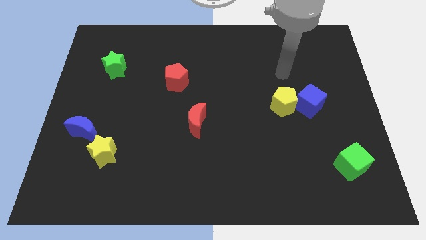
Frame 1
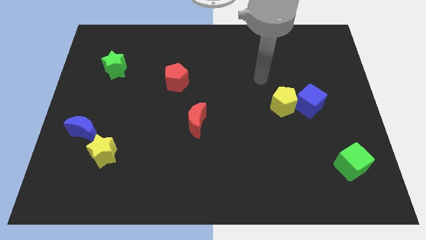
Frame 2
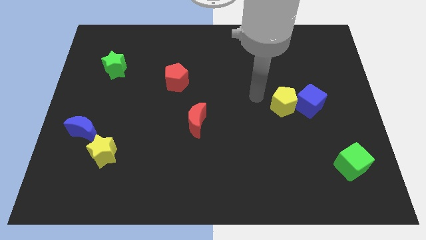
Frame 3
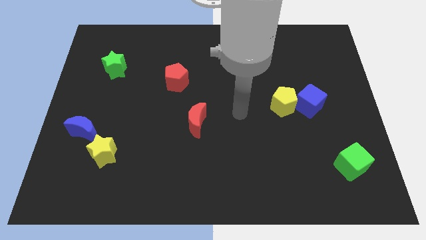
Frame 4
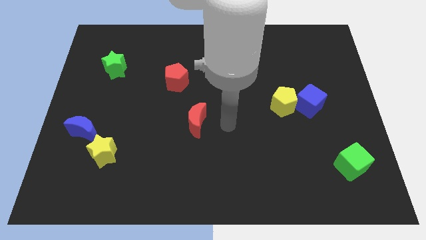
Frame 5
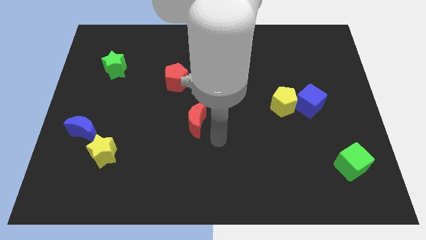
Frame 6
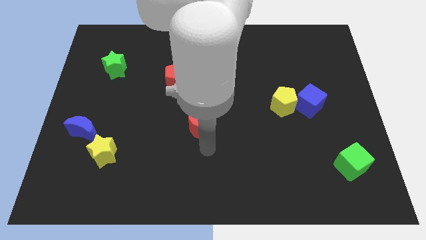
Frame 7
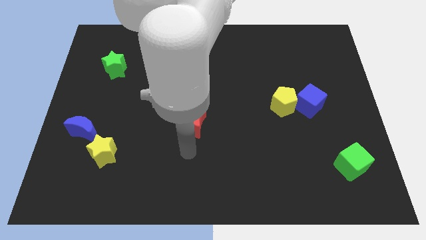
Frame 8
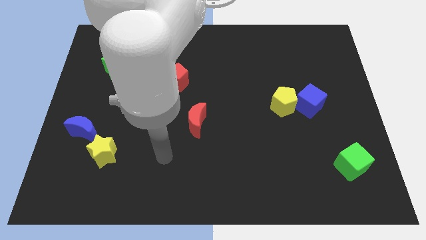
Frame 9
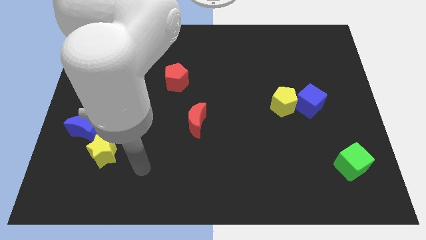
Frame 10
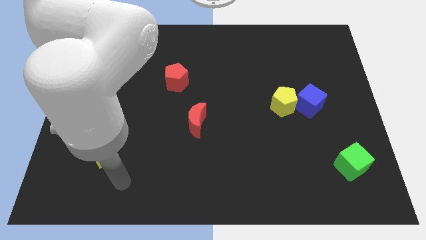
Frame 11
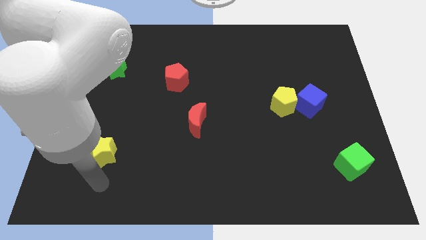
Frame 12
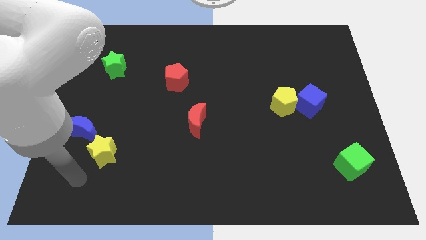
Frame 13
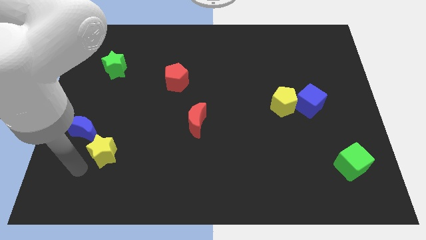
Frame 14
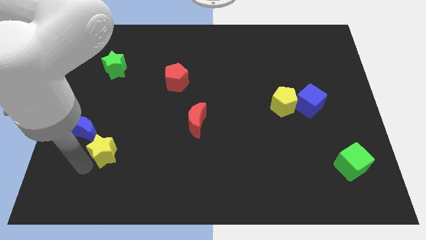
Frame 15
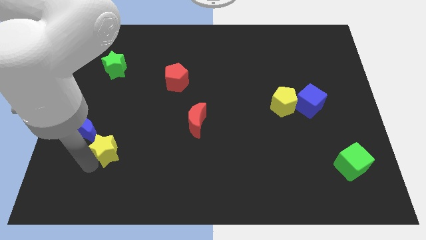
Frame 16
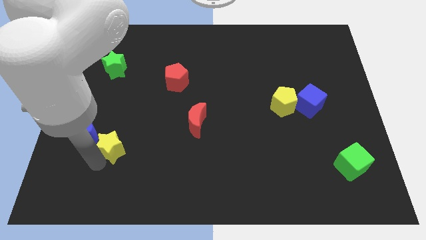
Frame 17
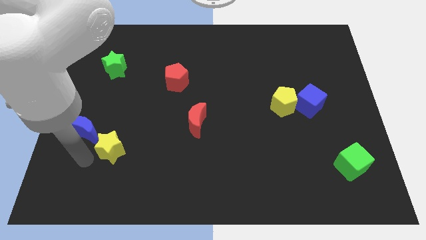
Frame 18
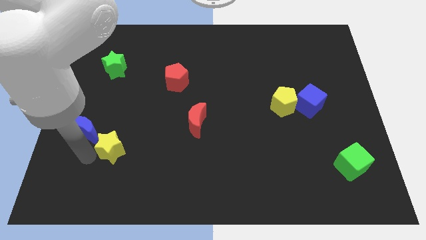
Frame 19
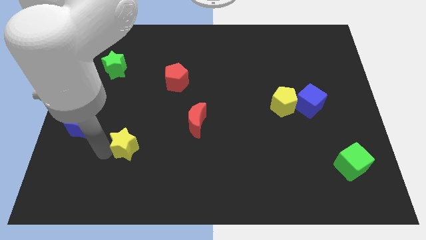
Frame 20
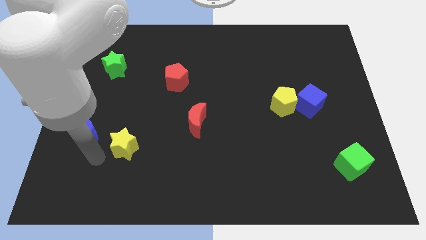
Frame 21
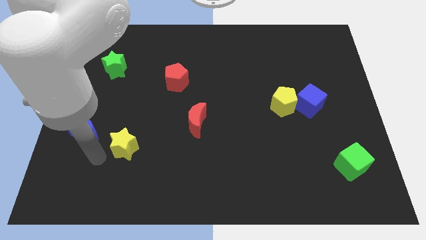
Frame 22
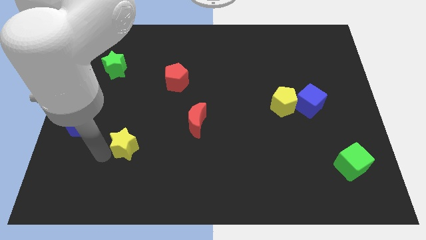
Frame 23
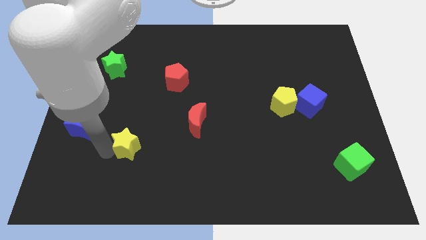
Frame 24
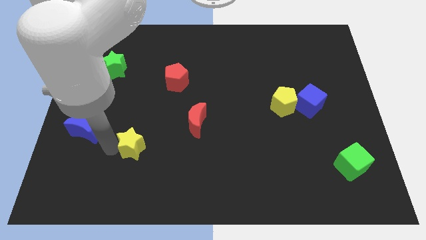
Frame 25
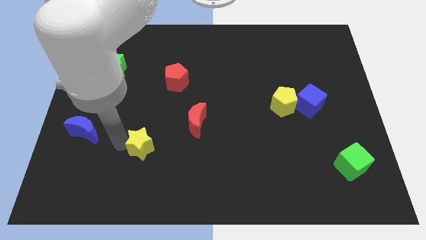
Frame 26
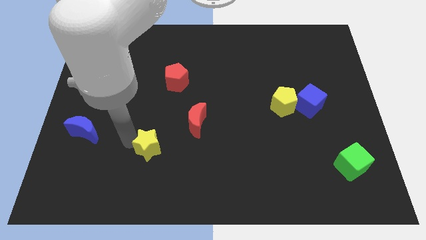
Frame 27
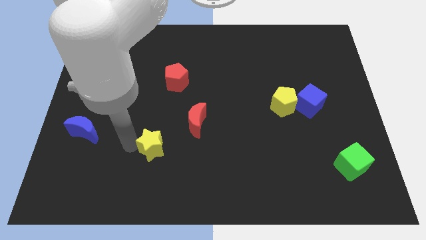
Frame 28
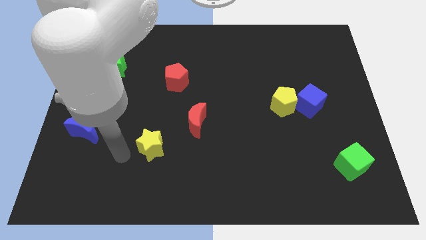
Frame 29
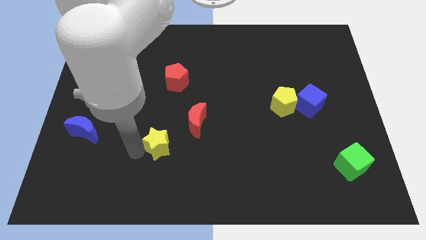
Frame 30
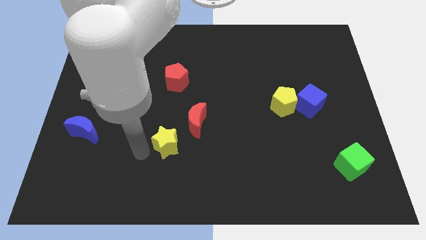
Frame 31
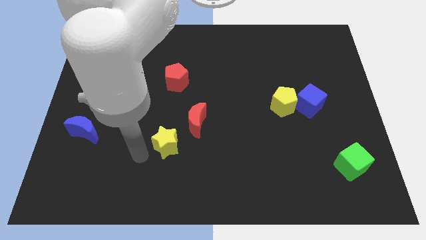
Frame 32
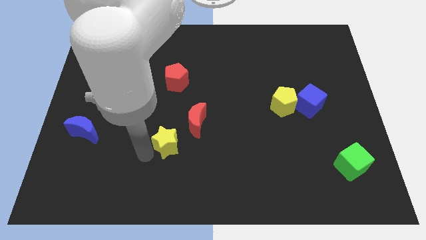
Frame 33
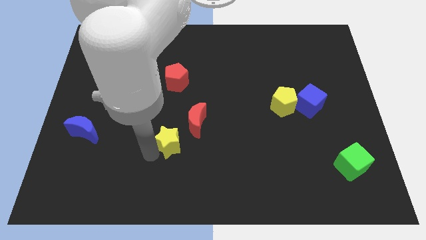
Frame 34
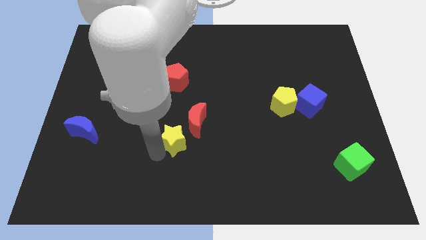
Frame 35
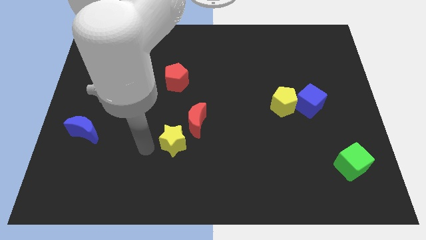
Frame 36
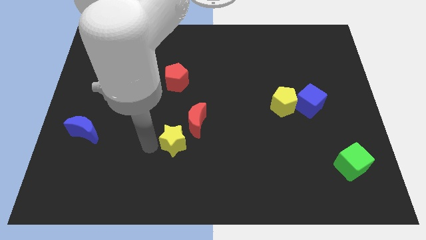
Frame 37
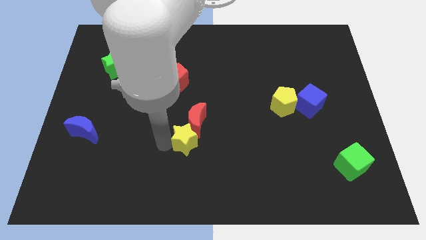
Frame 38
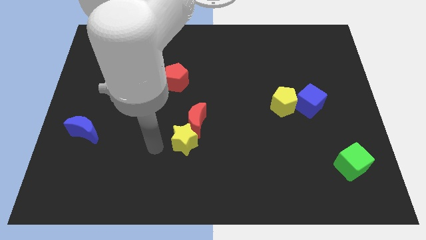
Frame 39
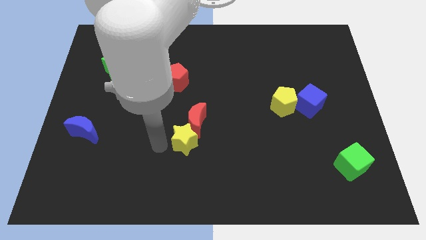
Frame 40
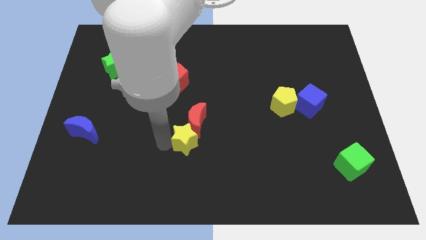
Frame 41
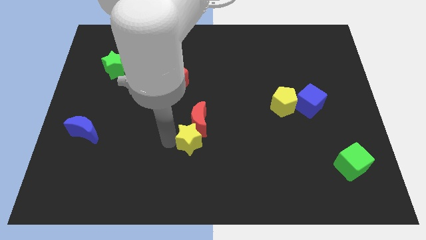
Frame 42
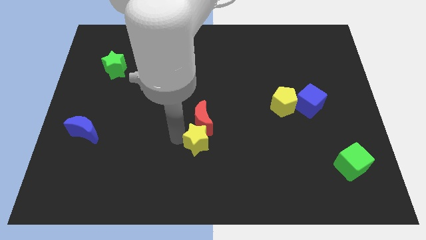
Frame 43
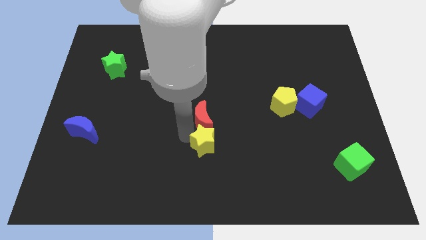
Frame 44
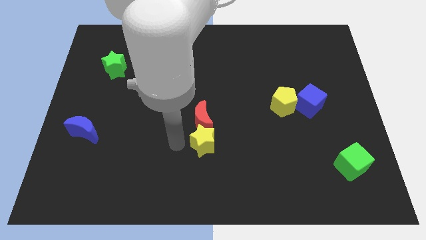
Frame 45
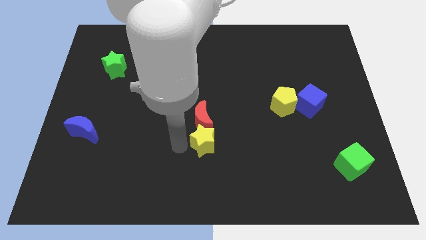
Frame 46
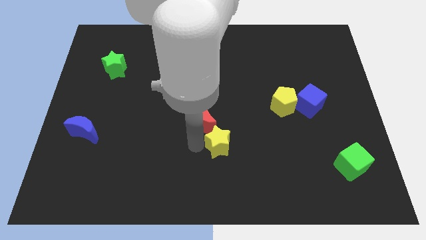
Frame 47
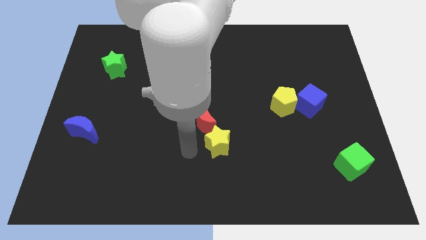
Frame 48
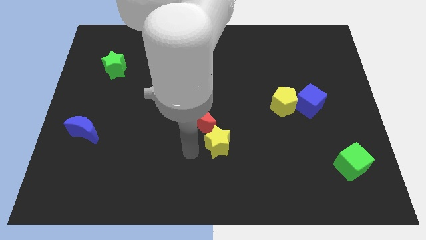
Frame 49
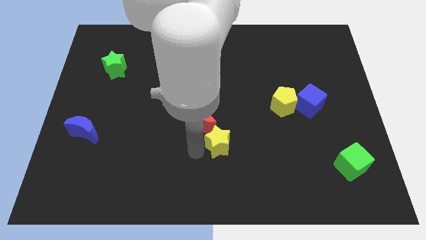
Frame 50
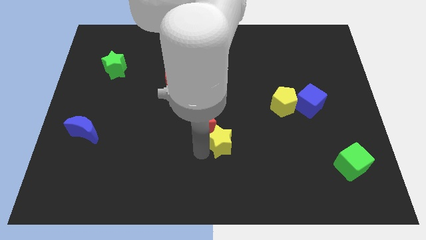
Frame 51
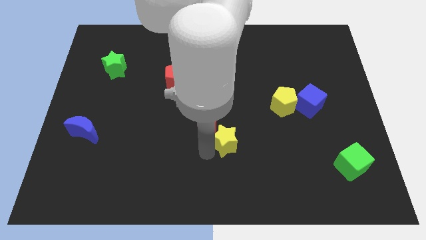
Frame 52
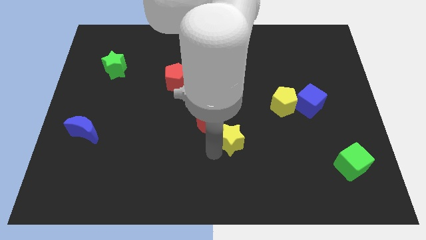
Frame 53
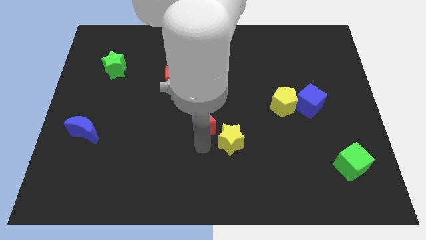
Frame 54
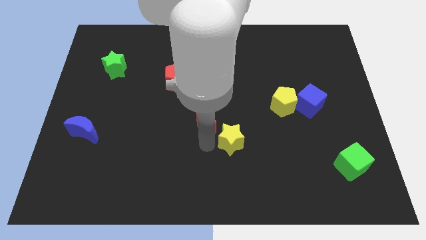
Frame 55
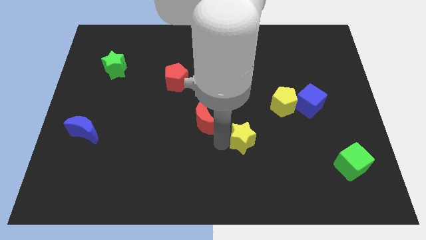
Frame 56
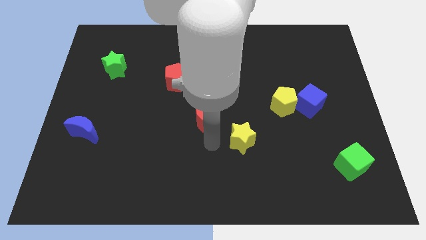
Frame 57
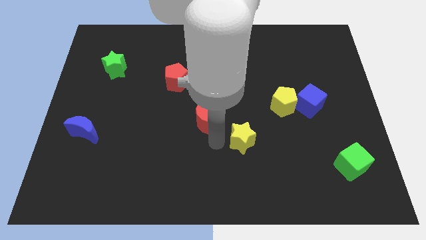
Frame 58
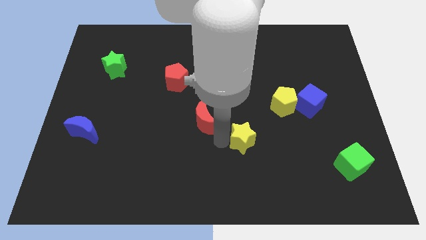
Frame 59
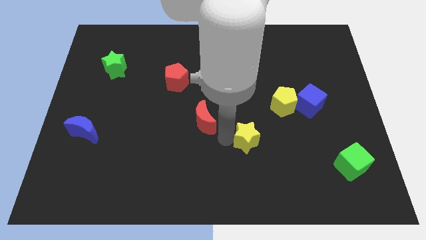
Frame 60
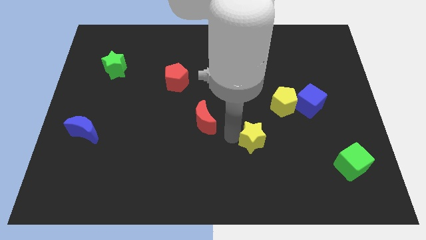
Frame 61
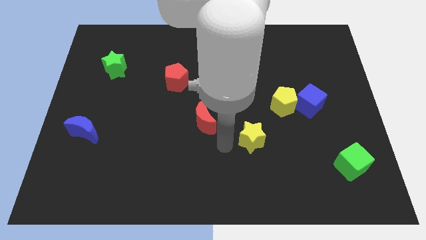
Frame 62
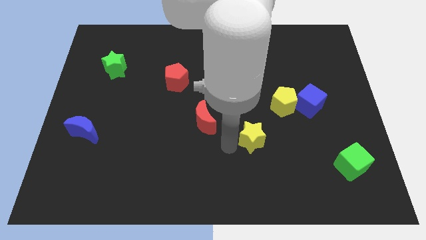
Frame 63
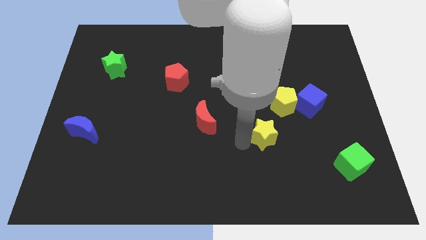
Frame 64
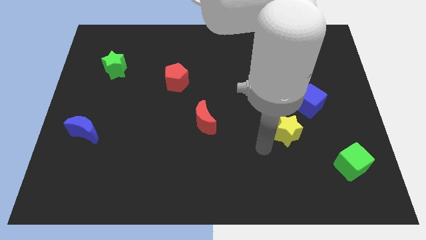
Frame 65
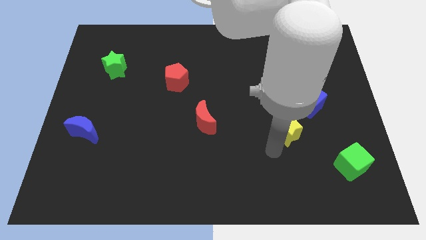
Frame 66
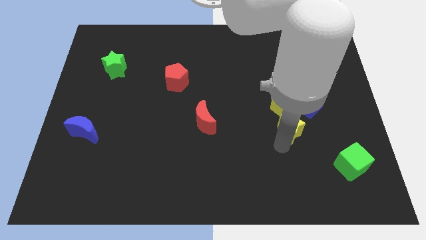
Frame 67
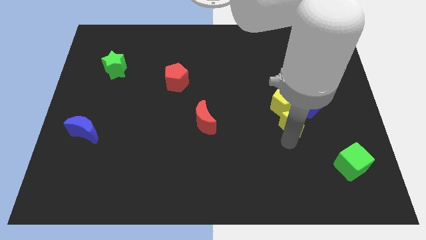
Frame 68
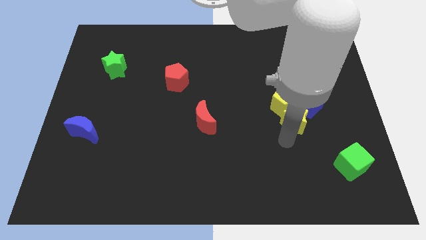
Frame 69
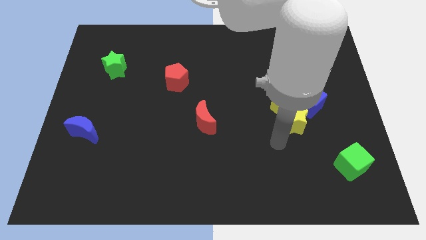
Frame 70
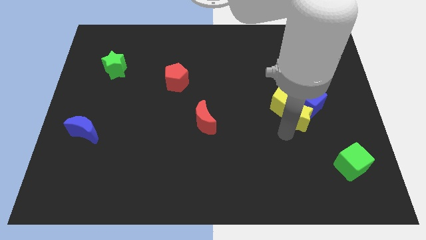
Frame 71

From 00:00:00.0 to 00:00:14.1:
move the yellow star close to the blue cube

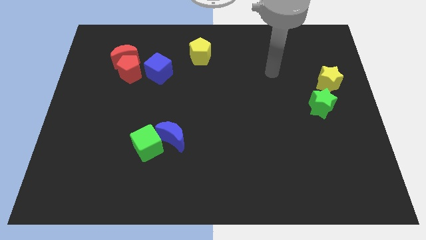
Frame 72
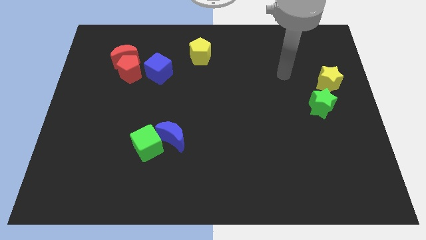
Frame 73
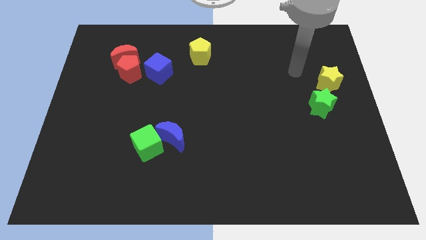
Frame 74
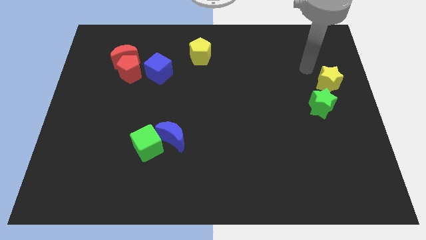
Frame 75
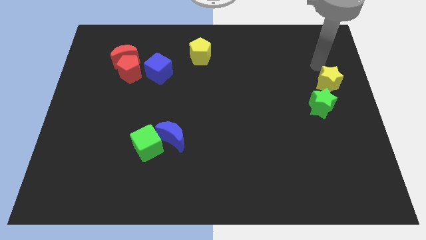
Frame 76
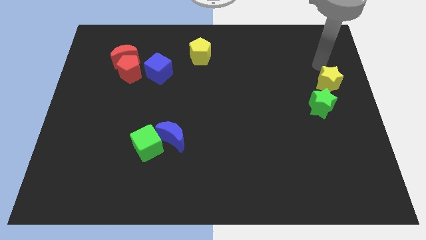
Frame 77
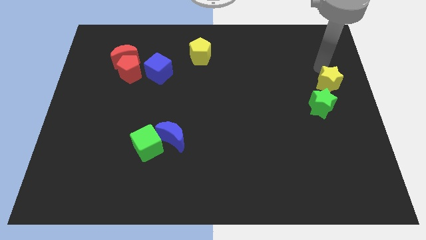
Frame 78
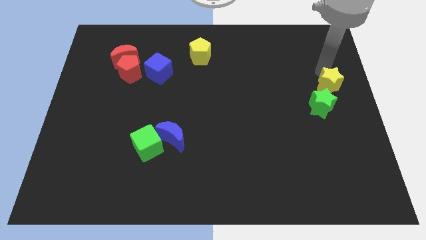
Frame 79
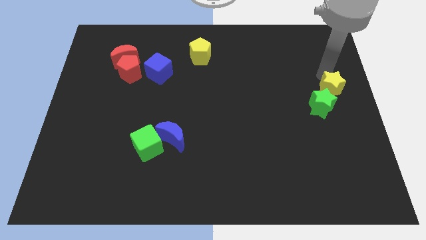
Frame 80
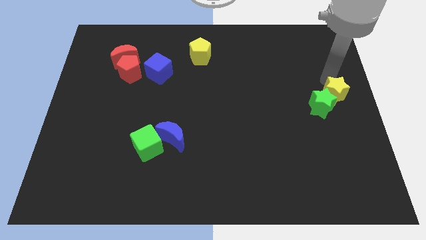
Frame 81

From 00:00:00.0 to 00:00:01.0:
slide the yellow star towards the green star
